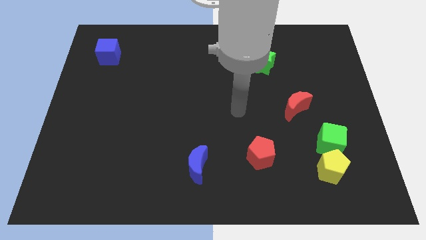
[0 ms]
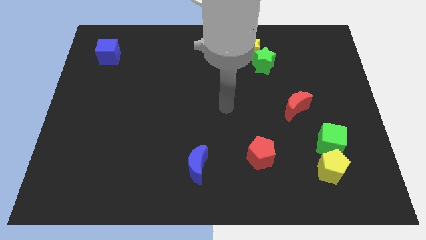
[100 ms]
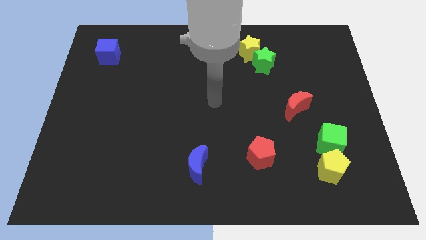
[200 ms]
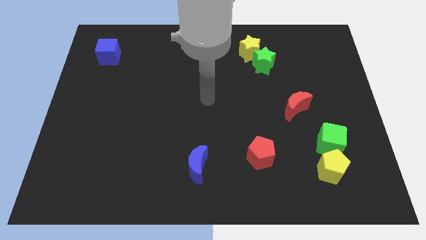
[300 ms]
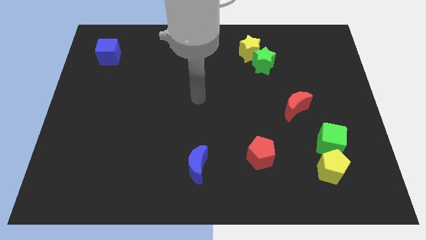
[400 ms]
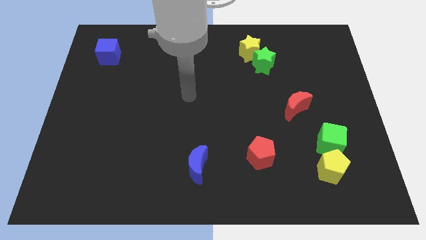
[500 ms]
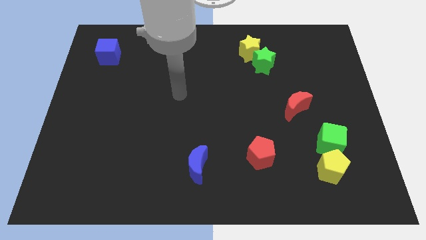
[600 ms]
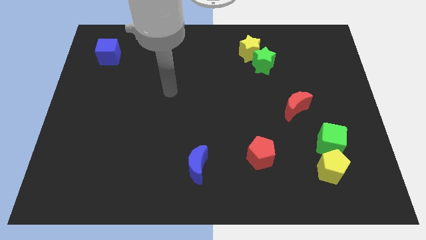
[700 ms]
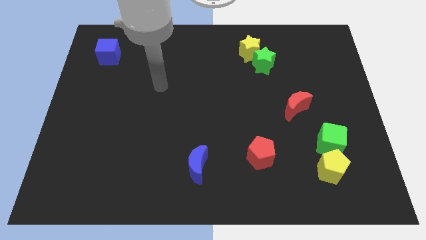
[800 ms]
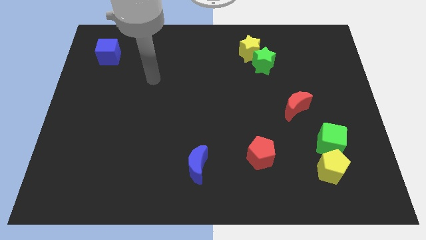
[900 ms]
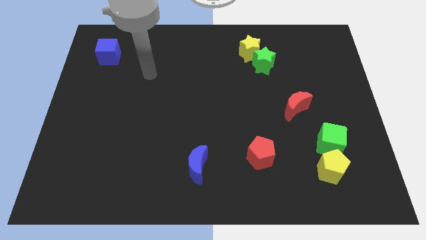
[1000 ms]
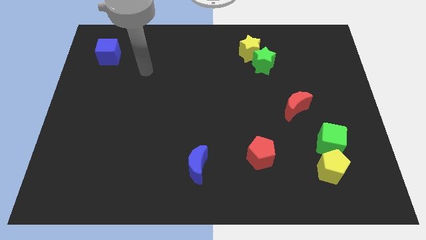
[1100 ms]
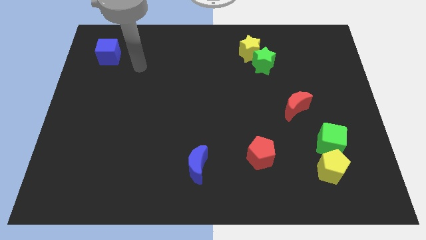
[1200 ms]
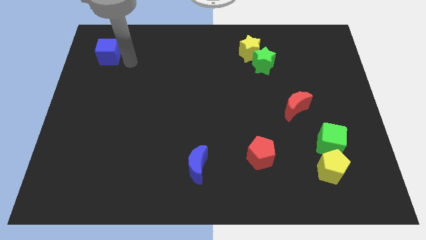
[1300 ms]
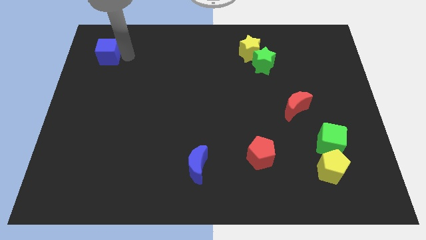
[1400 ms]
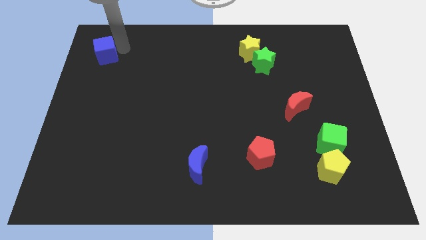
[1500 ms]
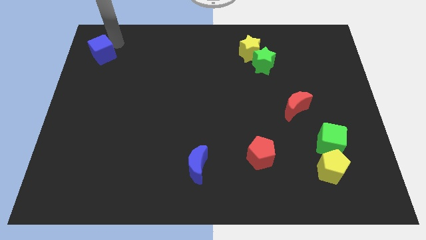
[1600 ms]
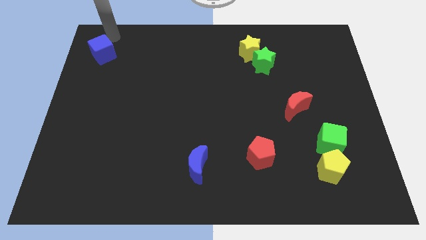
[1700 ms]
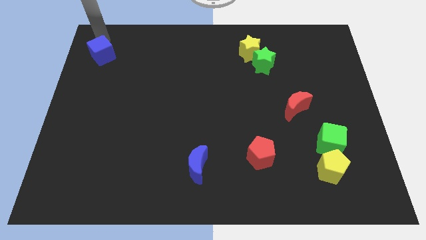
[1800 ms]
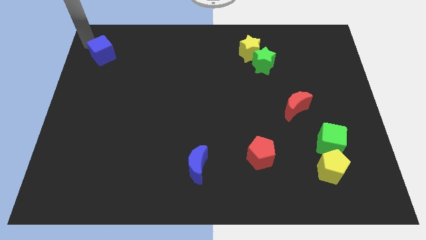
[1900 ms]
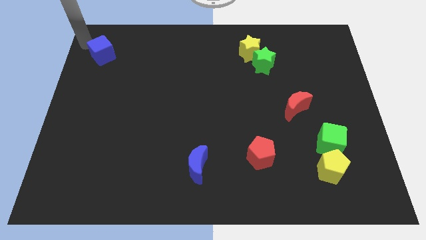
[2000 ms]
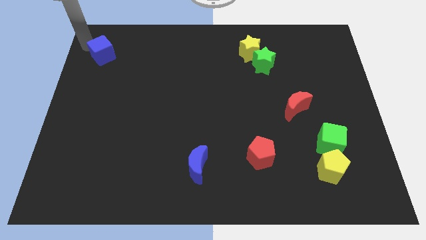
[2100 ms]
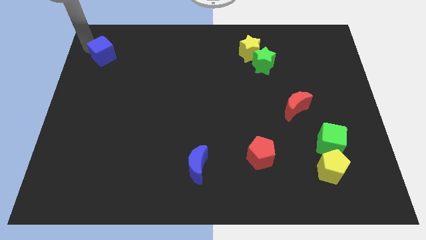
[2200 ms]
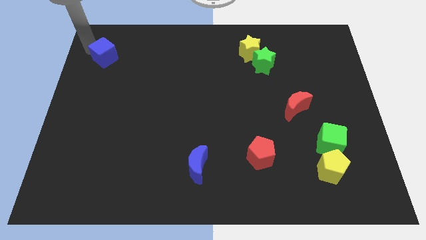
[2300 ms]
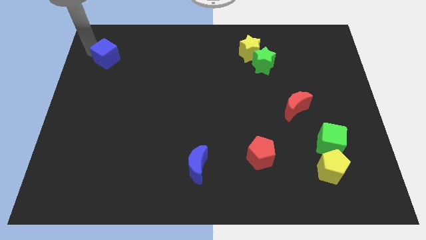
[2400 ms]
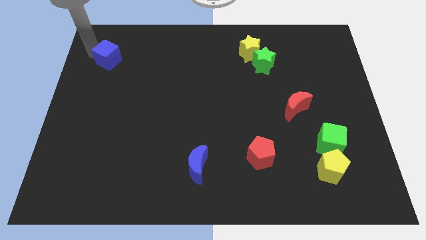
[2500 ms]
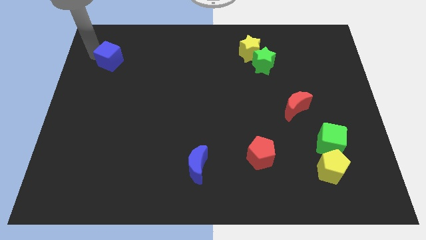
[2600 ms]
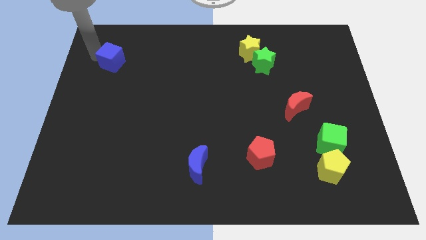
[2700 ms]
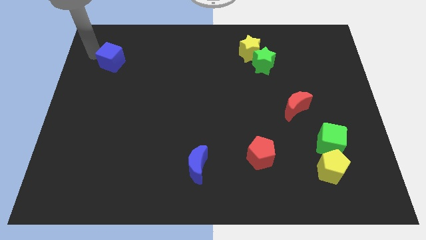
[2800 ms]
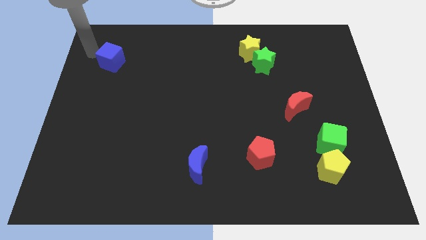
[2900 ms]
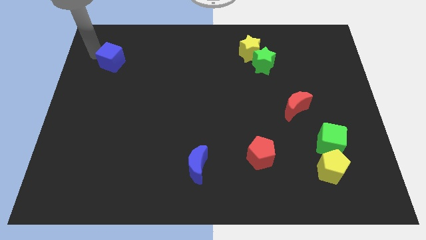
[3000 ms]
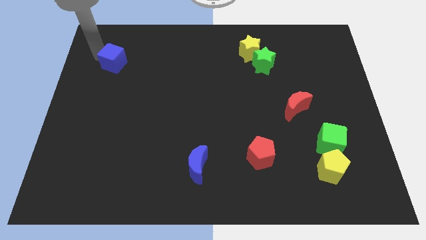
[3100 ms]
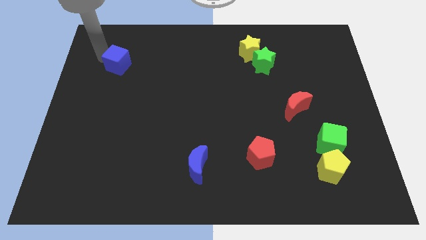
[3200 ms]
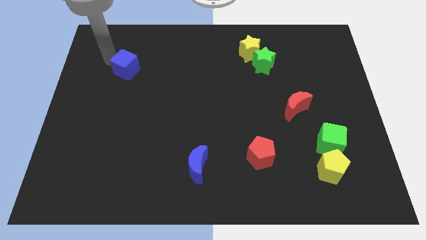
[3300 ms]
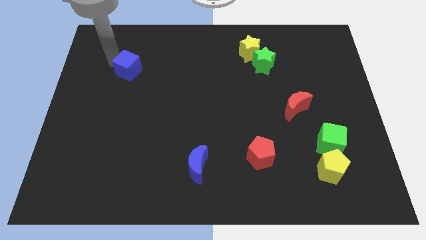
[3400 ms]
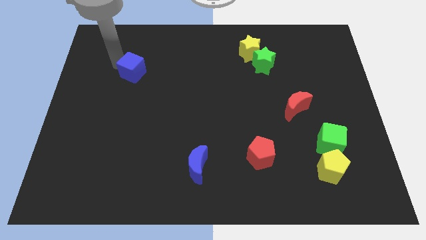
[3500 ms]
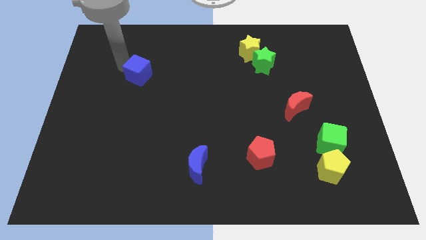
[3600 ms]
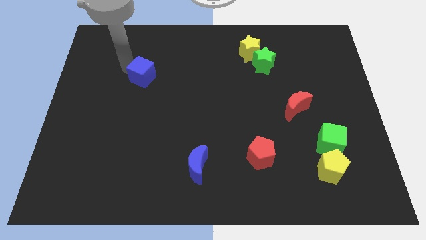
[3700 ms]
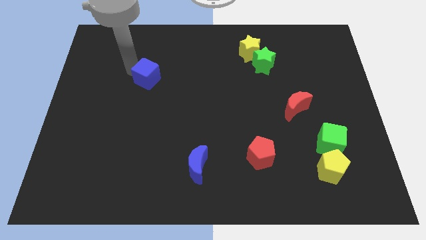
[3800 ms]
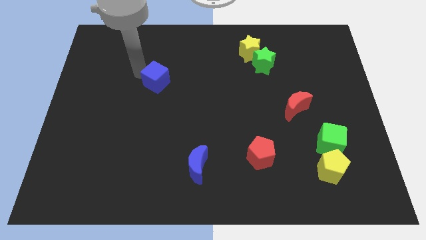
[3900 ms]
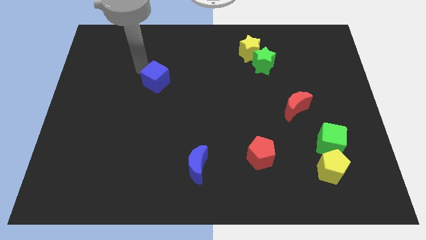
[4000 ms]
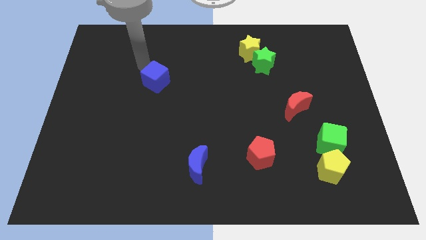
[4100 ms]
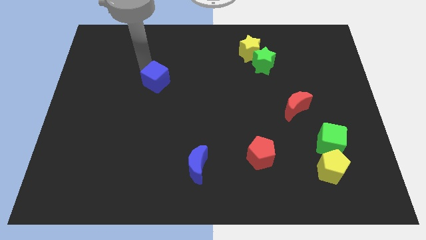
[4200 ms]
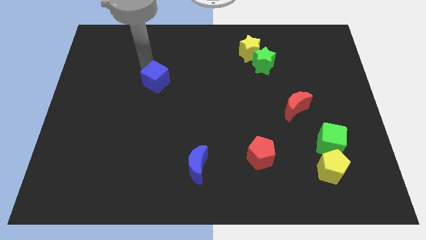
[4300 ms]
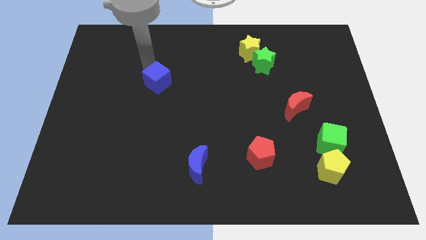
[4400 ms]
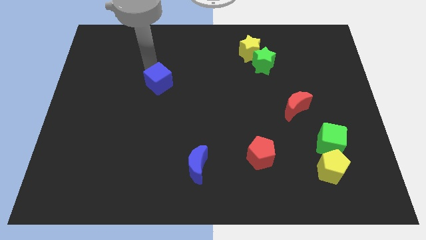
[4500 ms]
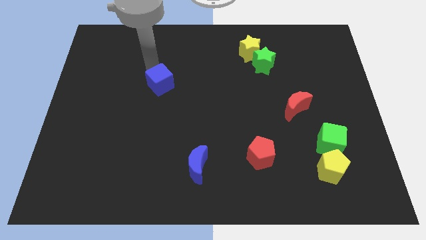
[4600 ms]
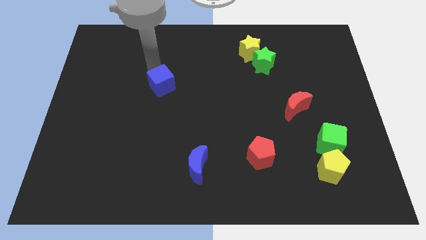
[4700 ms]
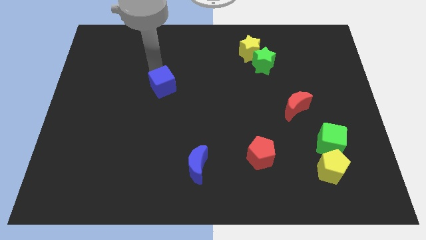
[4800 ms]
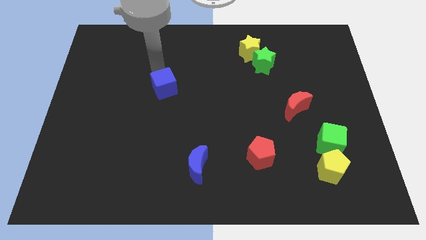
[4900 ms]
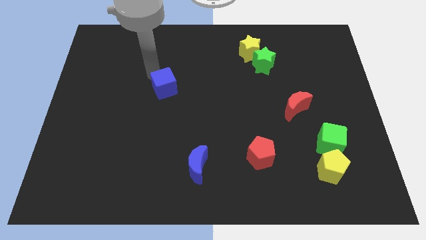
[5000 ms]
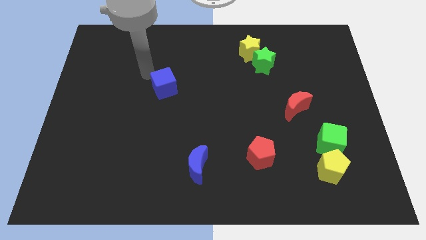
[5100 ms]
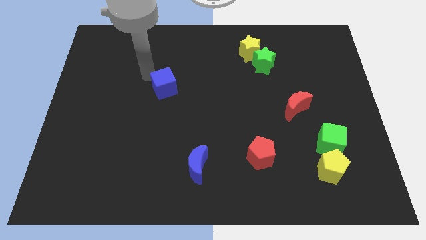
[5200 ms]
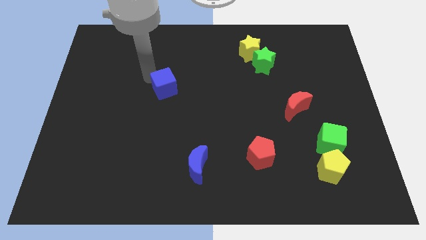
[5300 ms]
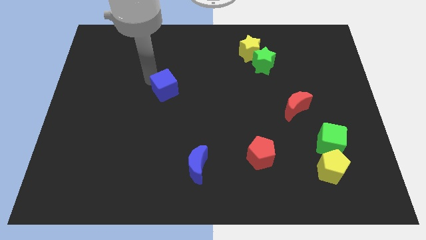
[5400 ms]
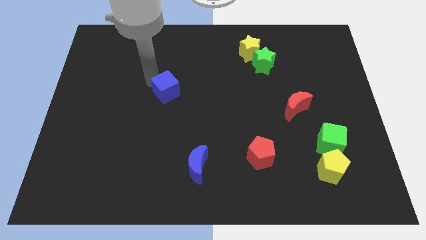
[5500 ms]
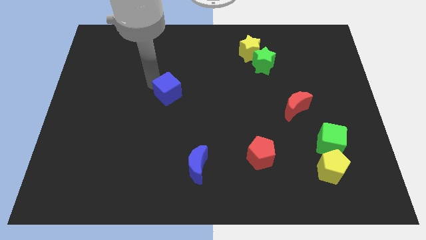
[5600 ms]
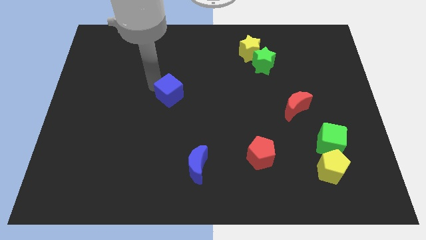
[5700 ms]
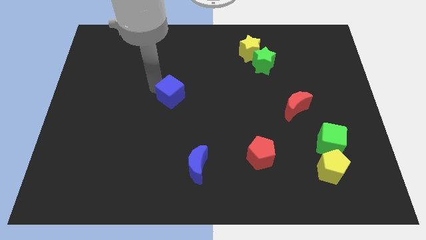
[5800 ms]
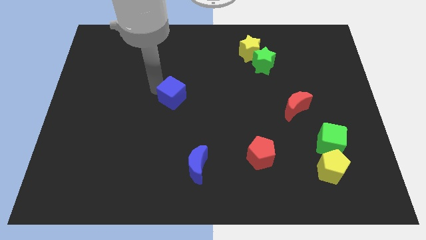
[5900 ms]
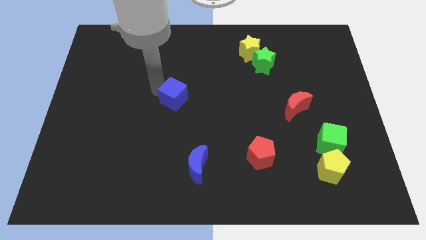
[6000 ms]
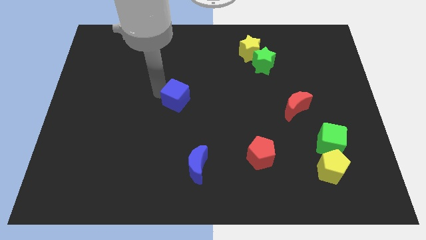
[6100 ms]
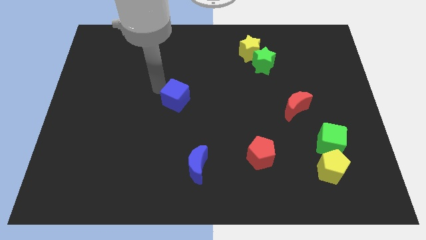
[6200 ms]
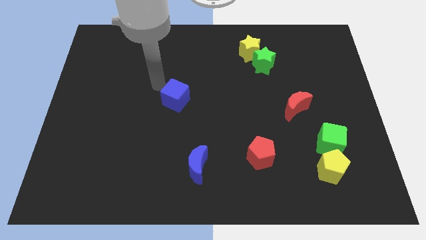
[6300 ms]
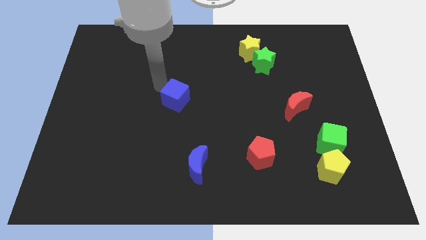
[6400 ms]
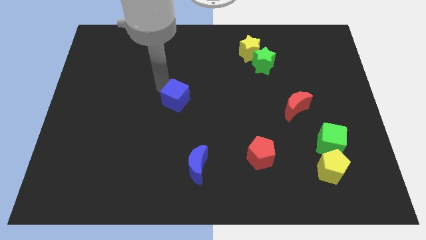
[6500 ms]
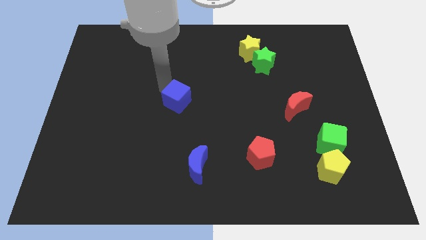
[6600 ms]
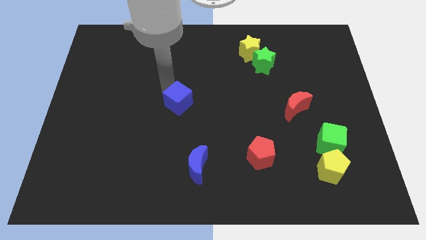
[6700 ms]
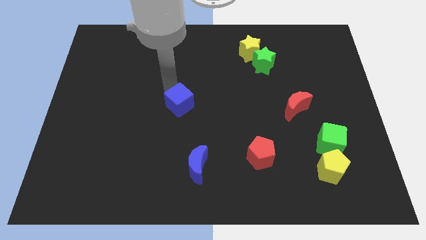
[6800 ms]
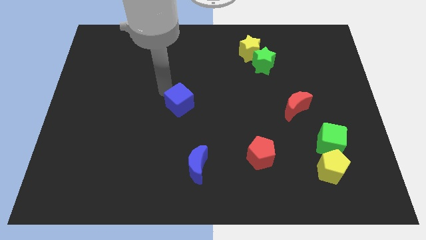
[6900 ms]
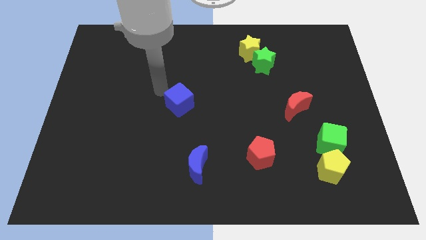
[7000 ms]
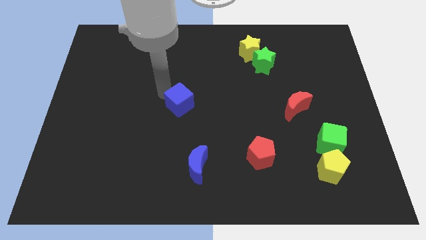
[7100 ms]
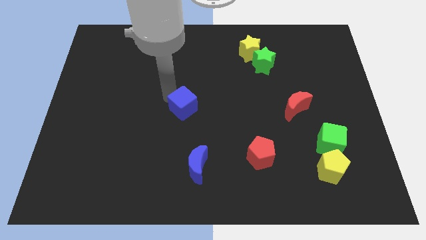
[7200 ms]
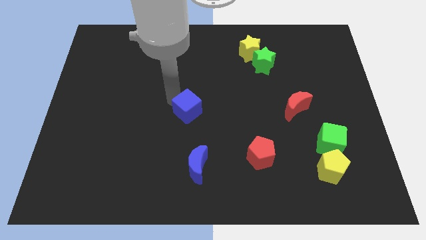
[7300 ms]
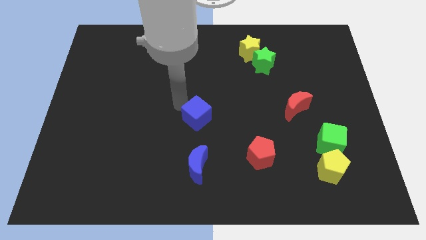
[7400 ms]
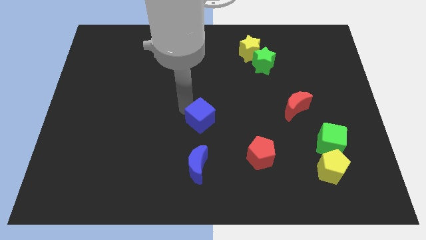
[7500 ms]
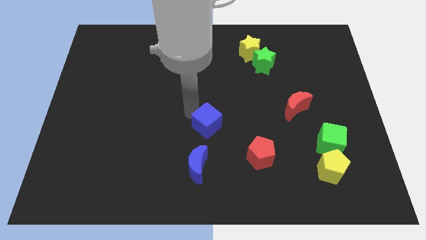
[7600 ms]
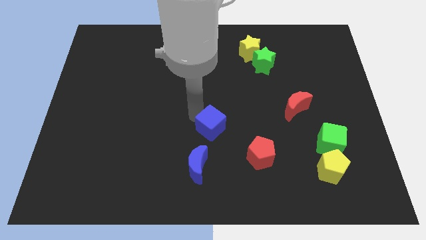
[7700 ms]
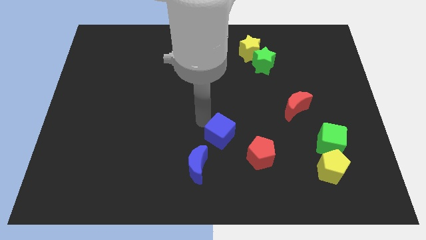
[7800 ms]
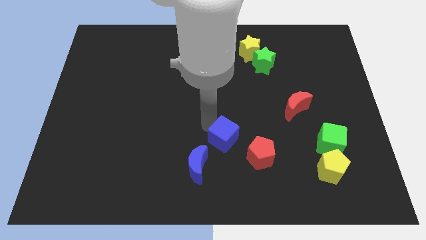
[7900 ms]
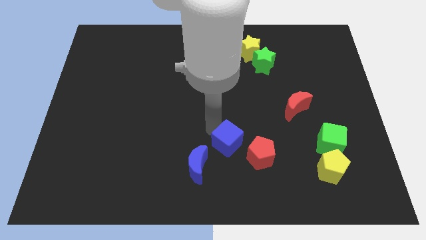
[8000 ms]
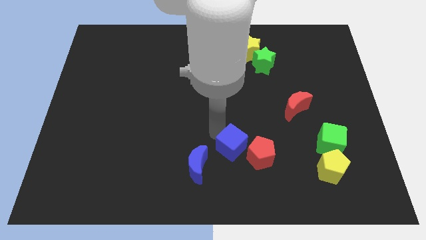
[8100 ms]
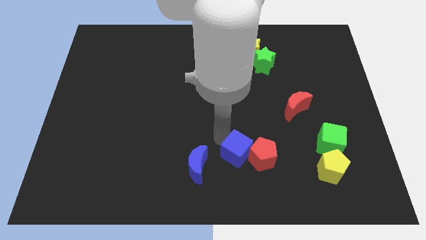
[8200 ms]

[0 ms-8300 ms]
slide the blue cube to the red pentagon

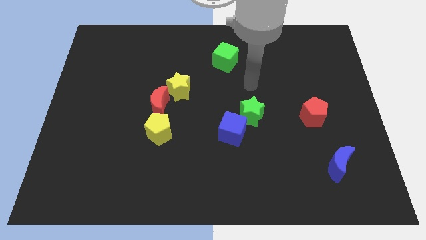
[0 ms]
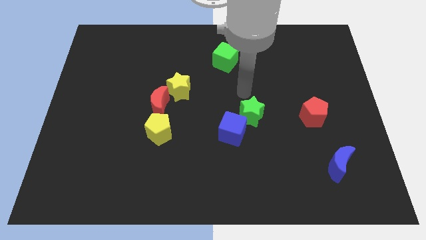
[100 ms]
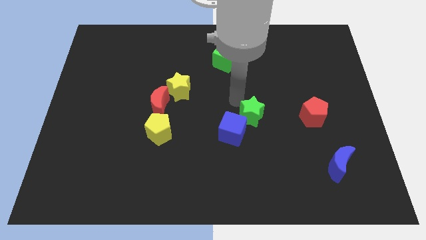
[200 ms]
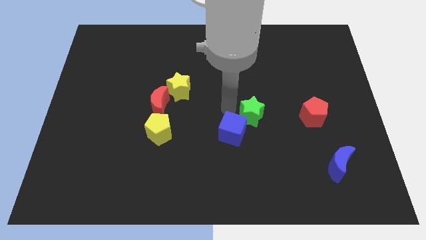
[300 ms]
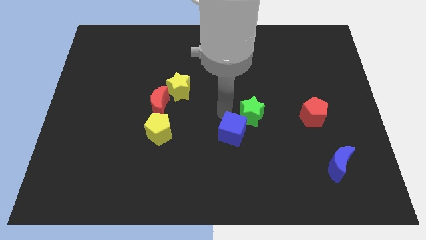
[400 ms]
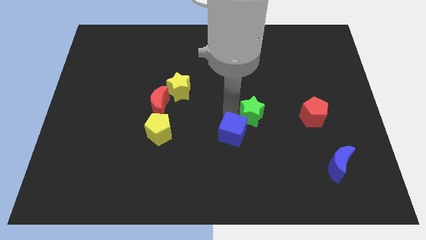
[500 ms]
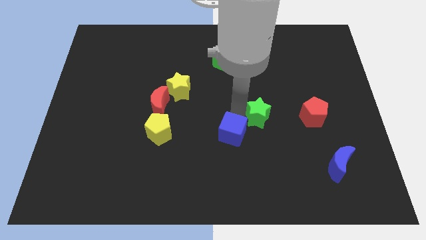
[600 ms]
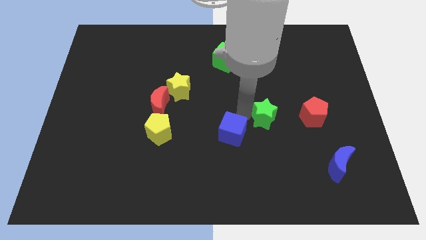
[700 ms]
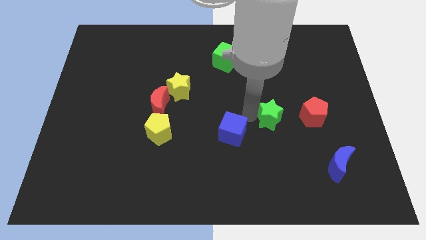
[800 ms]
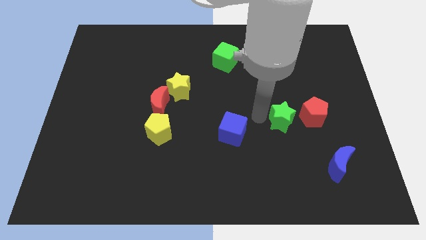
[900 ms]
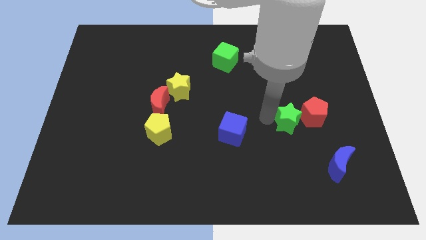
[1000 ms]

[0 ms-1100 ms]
slide the green star towards the red pentagon
